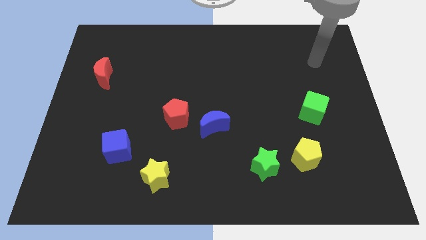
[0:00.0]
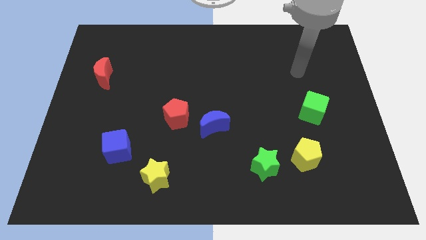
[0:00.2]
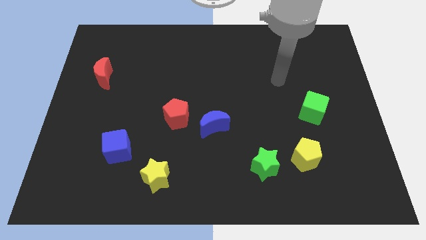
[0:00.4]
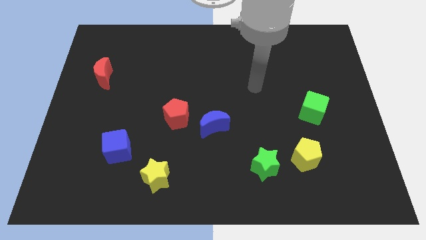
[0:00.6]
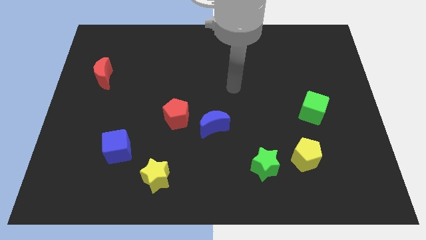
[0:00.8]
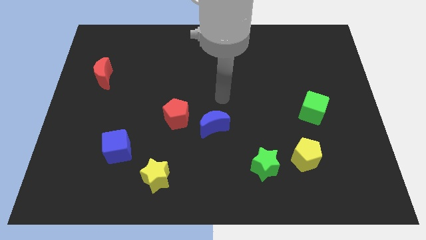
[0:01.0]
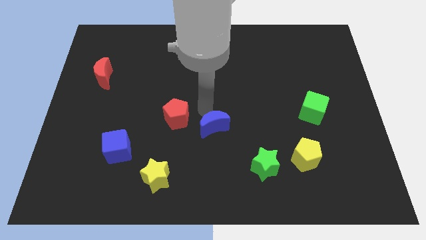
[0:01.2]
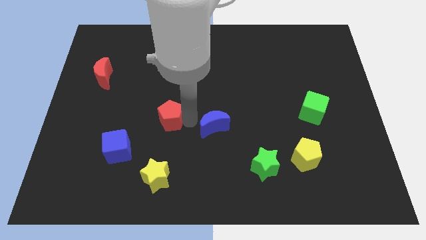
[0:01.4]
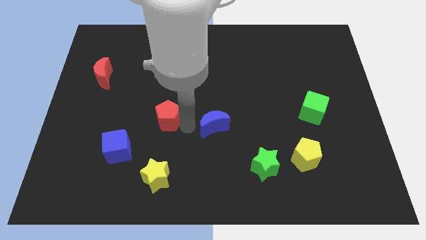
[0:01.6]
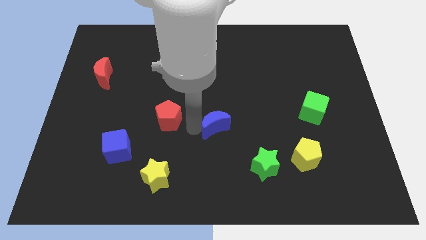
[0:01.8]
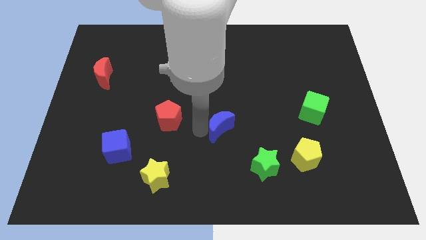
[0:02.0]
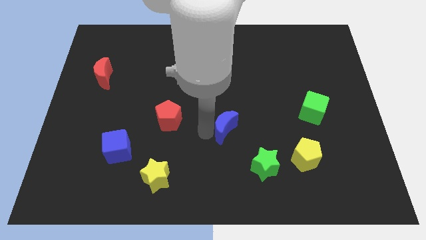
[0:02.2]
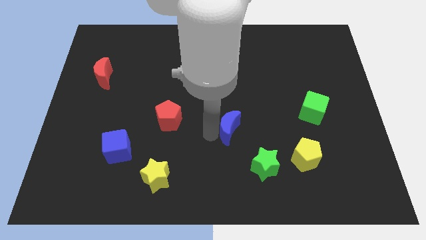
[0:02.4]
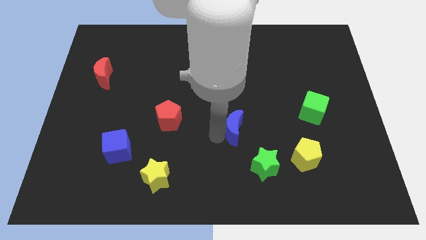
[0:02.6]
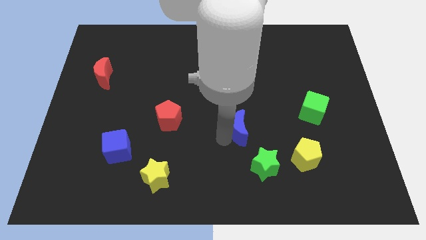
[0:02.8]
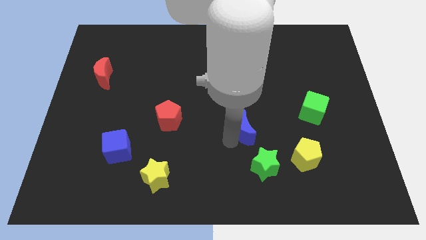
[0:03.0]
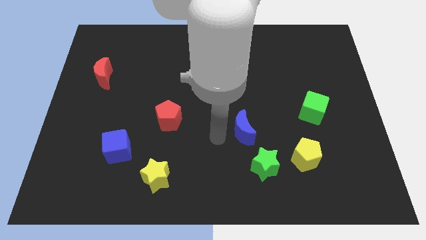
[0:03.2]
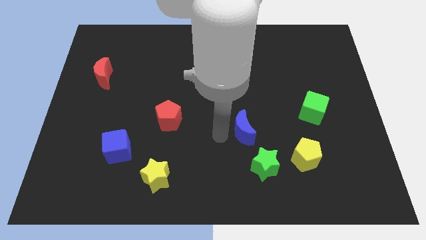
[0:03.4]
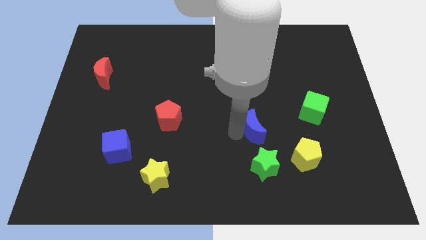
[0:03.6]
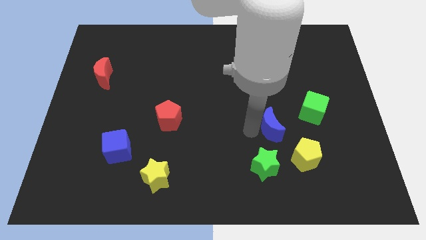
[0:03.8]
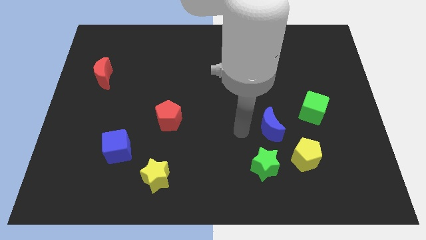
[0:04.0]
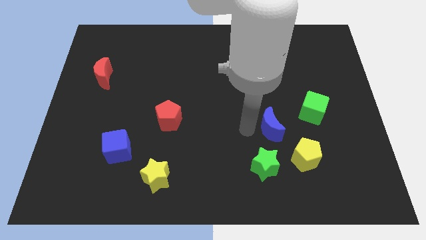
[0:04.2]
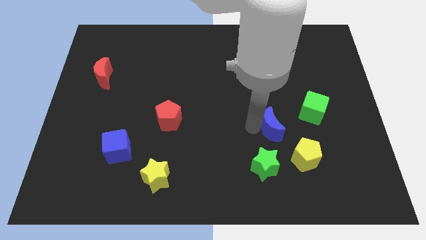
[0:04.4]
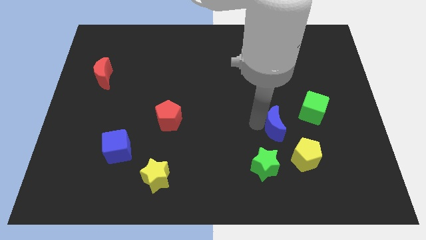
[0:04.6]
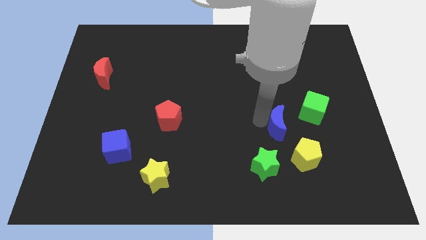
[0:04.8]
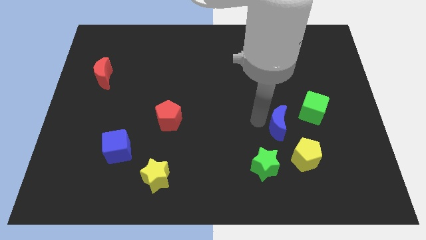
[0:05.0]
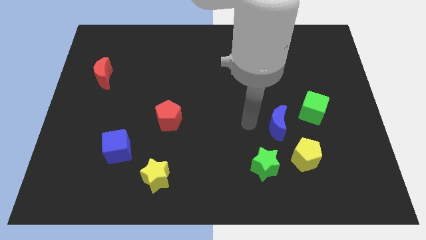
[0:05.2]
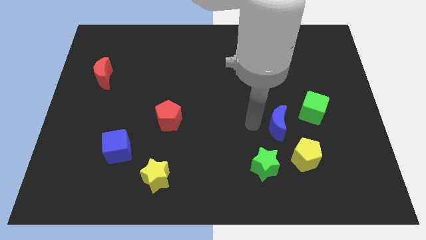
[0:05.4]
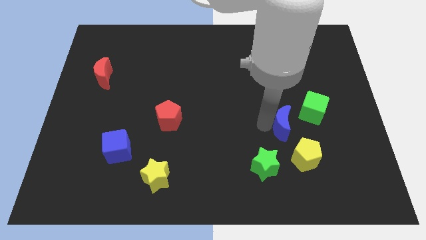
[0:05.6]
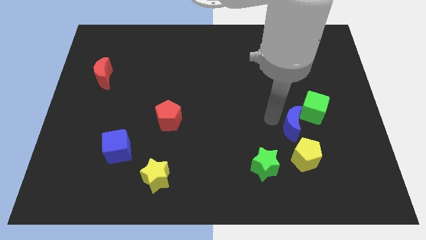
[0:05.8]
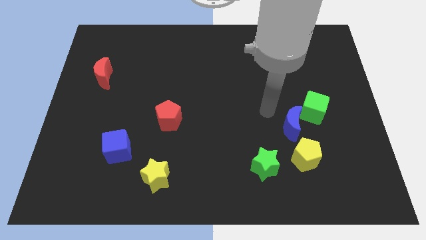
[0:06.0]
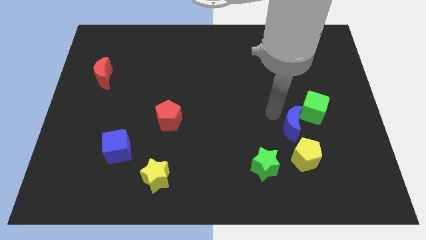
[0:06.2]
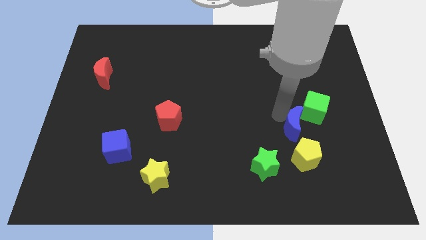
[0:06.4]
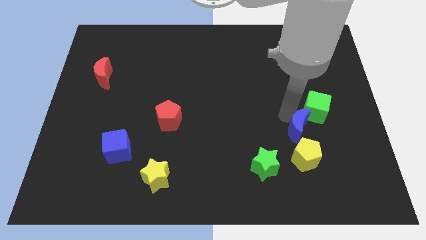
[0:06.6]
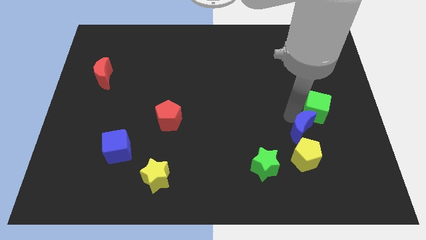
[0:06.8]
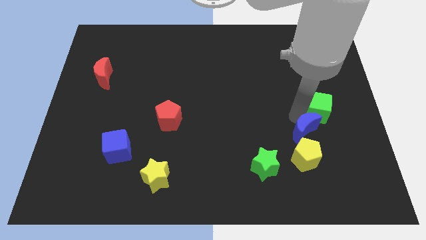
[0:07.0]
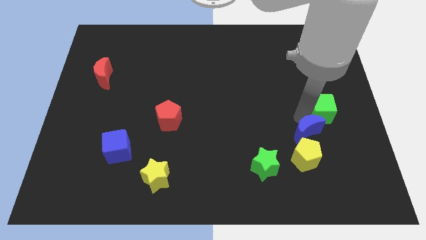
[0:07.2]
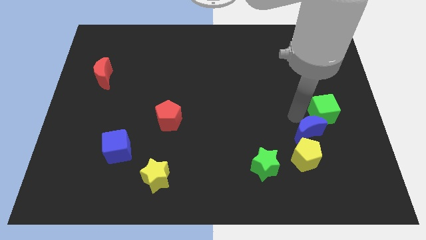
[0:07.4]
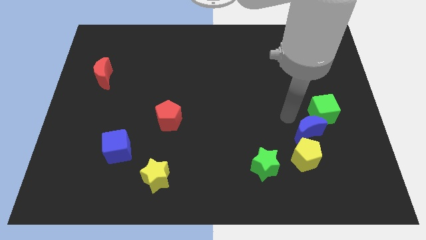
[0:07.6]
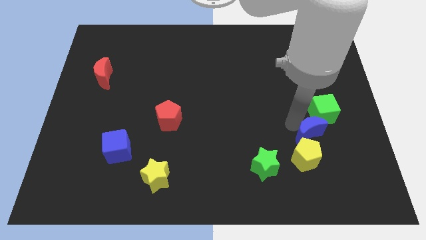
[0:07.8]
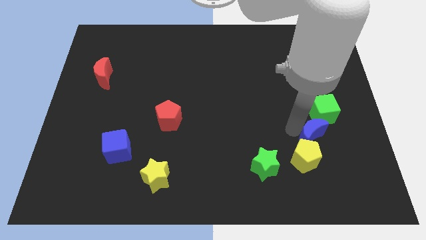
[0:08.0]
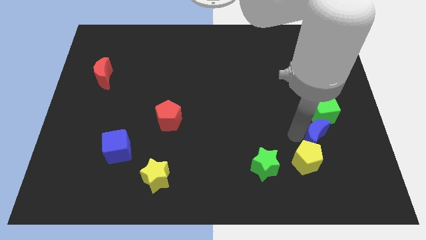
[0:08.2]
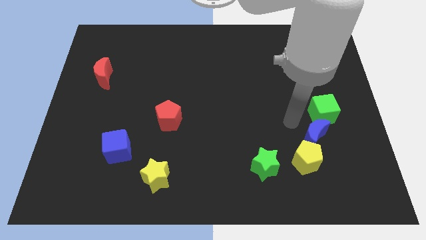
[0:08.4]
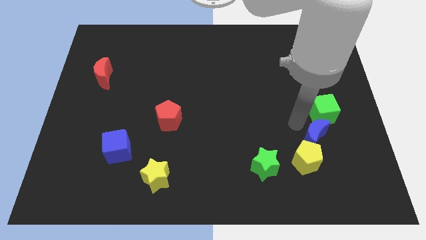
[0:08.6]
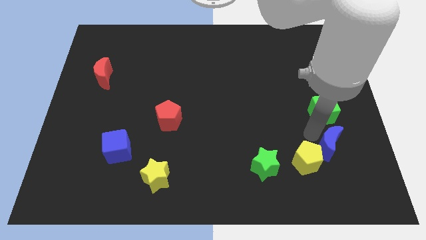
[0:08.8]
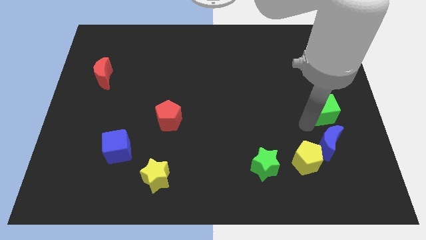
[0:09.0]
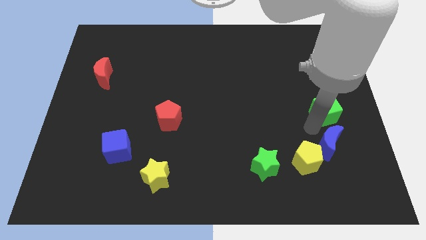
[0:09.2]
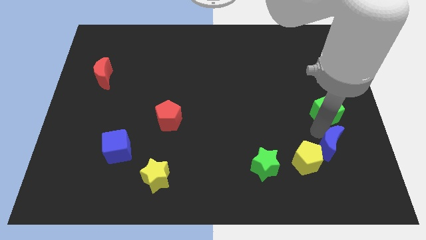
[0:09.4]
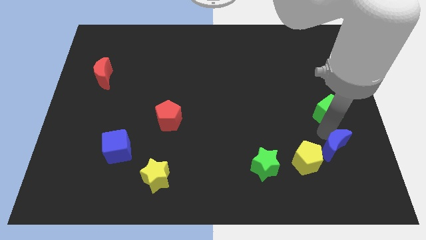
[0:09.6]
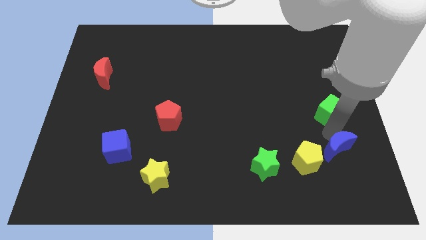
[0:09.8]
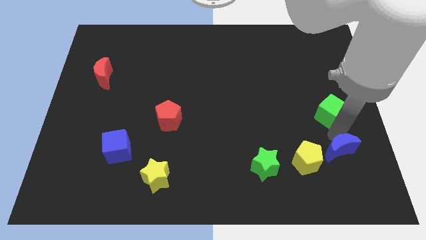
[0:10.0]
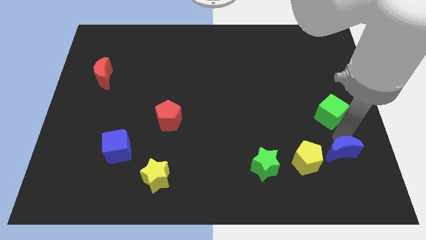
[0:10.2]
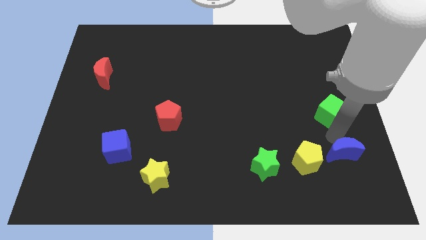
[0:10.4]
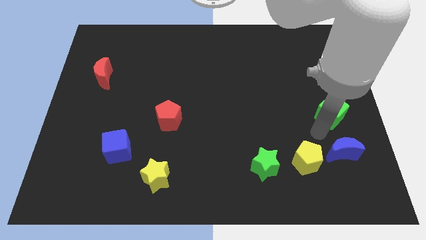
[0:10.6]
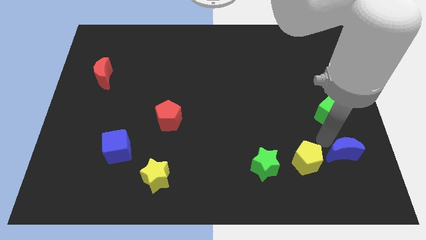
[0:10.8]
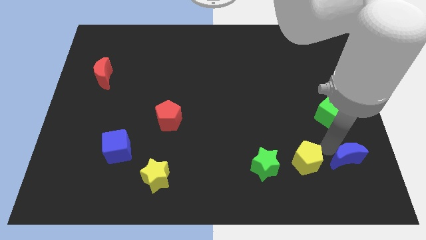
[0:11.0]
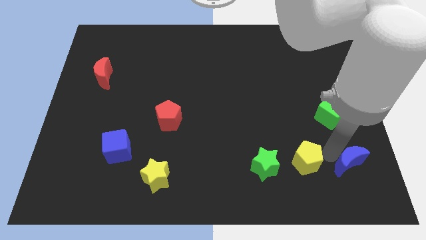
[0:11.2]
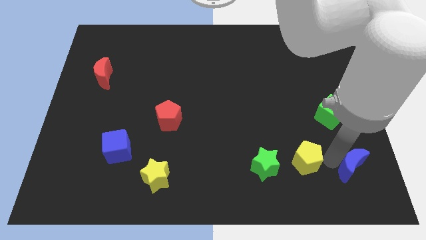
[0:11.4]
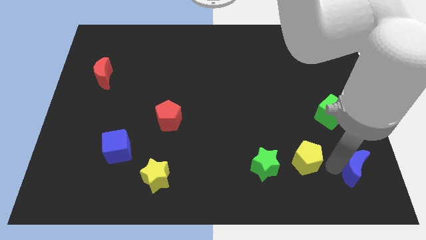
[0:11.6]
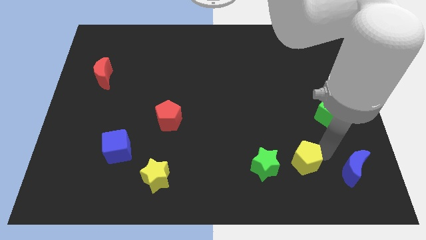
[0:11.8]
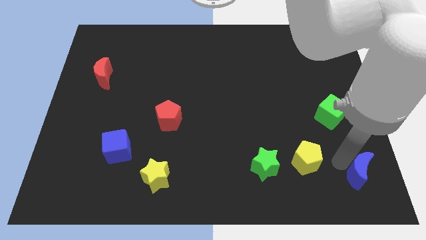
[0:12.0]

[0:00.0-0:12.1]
slide the blue moon to the bottom right corner

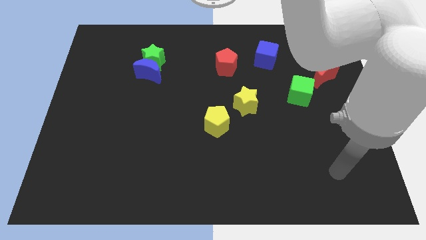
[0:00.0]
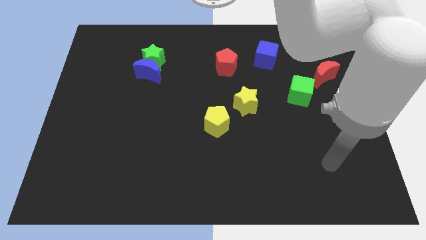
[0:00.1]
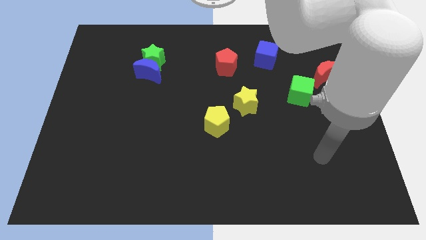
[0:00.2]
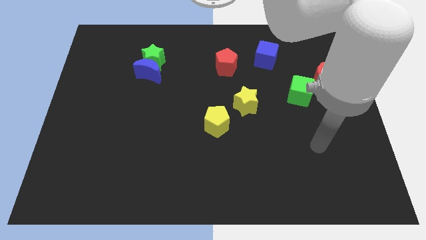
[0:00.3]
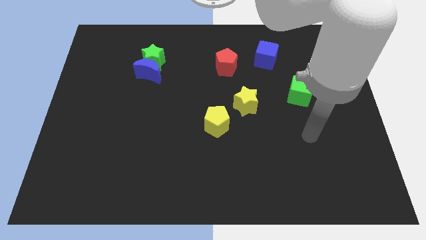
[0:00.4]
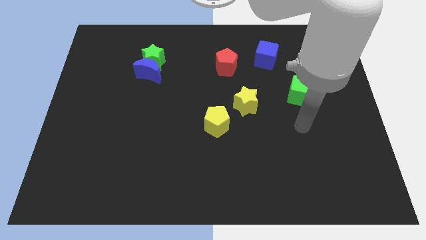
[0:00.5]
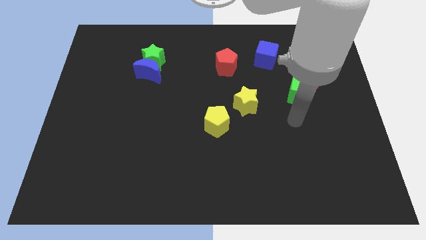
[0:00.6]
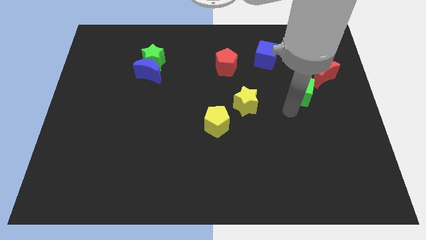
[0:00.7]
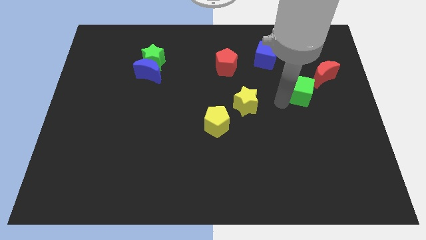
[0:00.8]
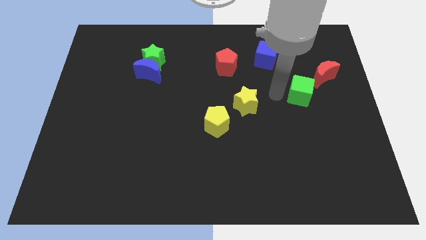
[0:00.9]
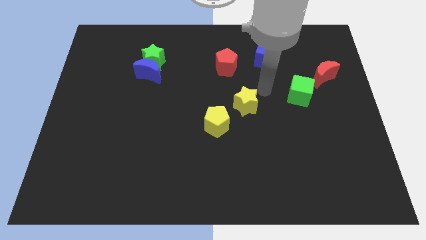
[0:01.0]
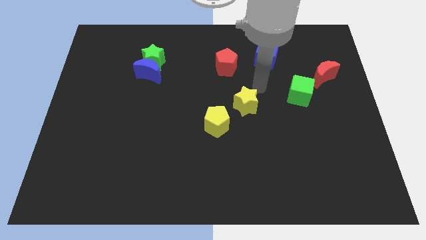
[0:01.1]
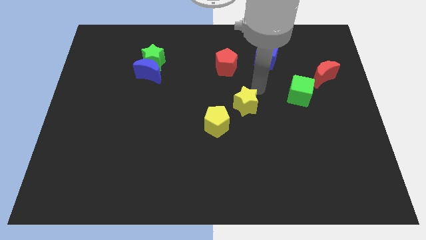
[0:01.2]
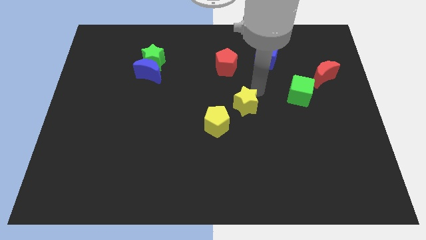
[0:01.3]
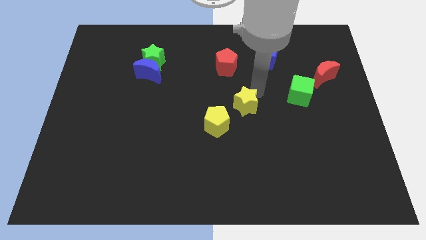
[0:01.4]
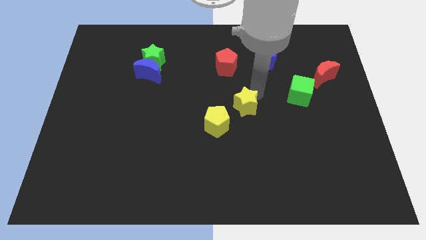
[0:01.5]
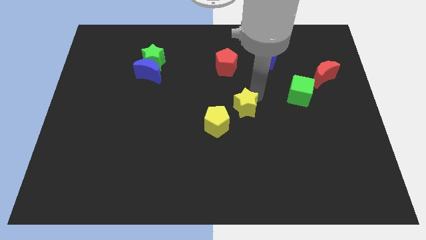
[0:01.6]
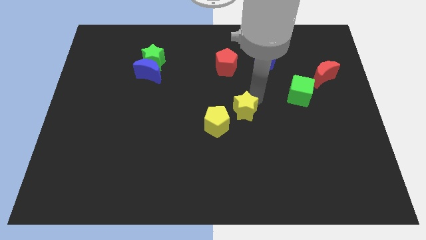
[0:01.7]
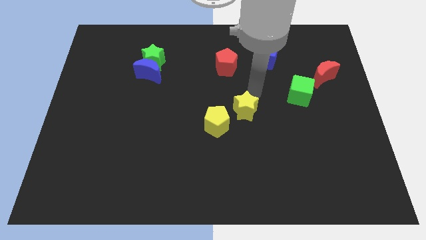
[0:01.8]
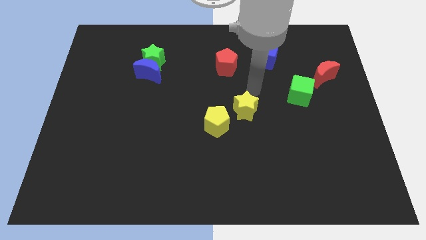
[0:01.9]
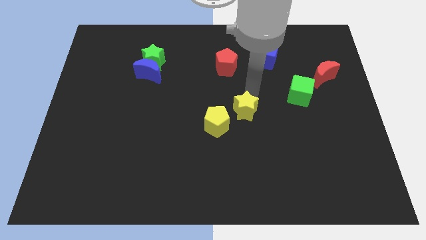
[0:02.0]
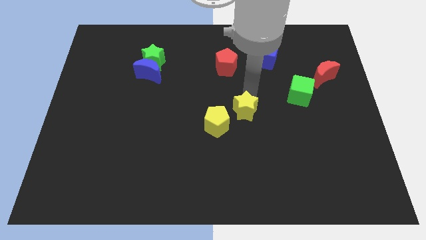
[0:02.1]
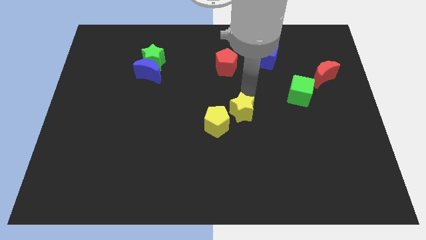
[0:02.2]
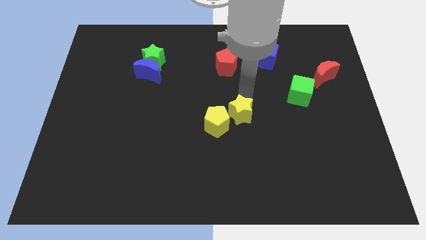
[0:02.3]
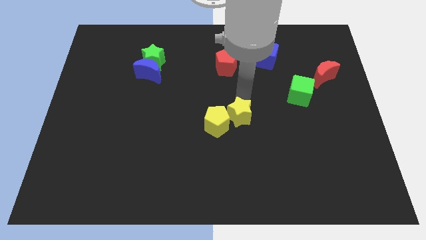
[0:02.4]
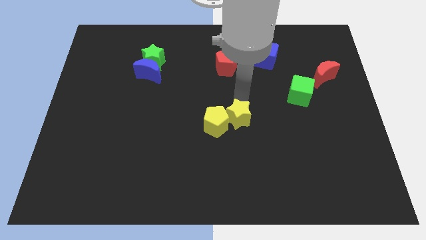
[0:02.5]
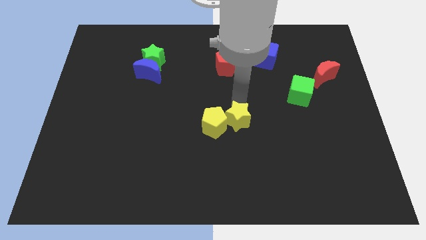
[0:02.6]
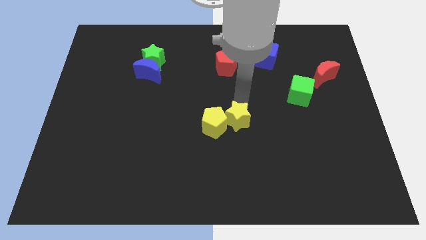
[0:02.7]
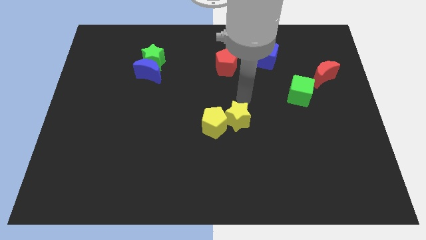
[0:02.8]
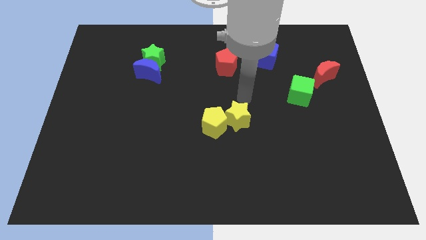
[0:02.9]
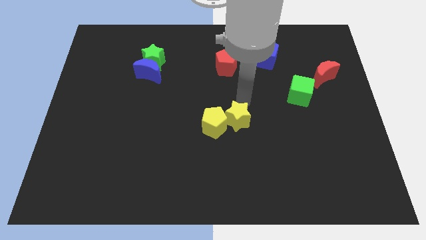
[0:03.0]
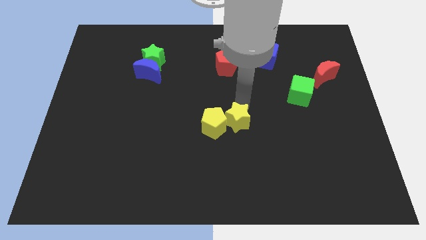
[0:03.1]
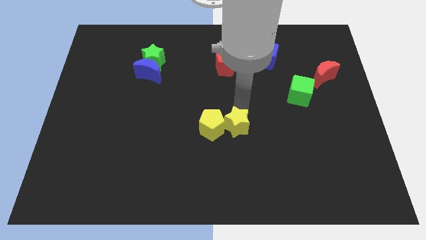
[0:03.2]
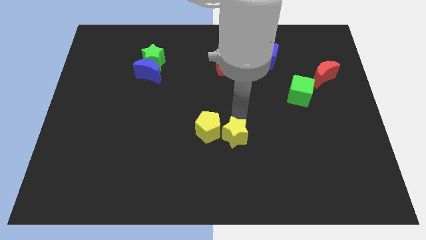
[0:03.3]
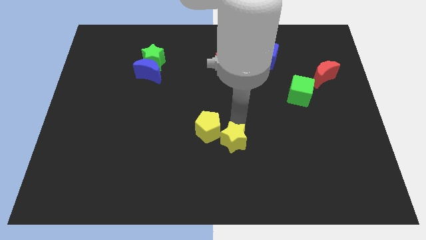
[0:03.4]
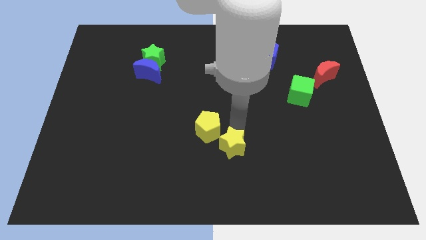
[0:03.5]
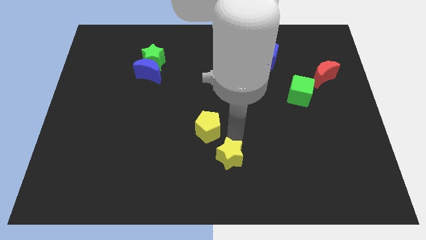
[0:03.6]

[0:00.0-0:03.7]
move the yellow star to the bottom side
